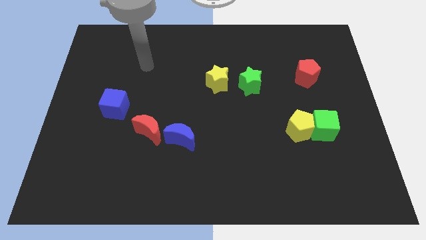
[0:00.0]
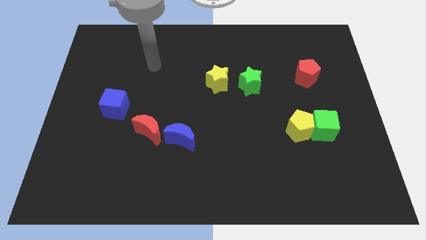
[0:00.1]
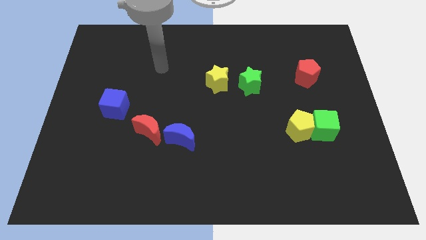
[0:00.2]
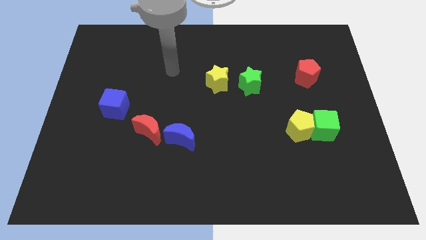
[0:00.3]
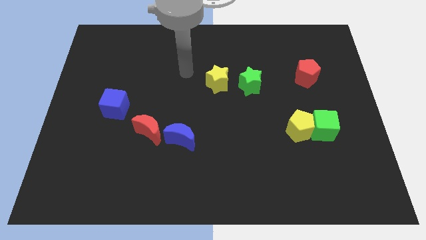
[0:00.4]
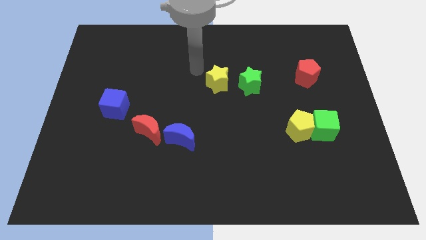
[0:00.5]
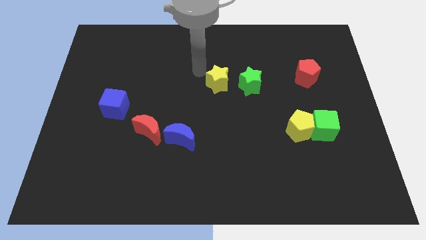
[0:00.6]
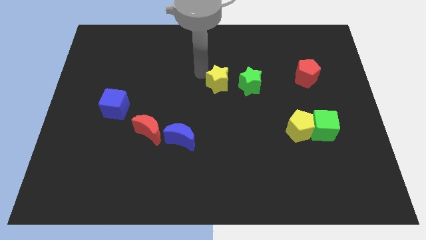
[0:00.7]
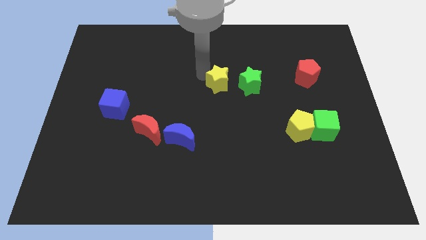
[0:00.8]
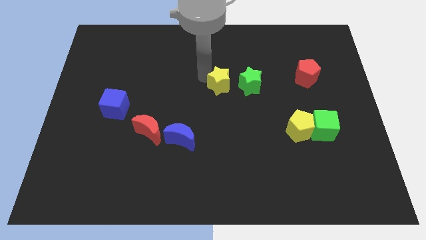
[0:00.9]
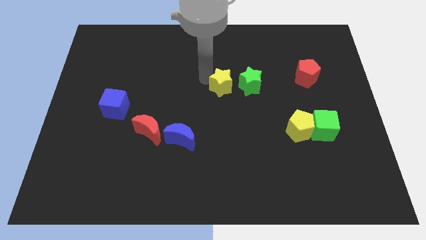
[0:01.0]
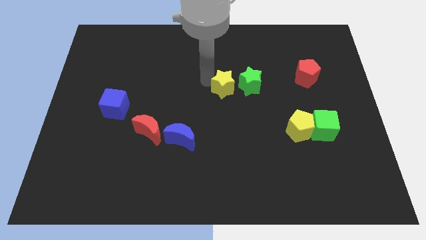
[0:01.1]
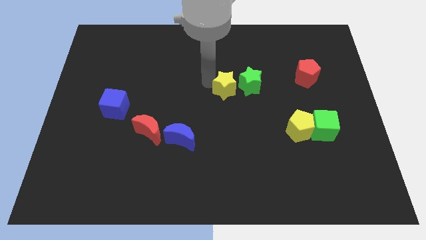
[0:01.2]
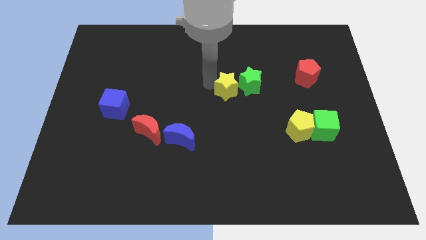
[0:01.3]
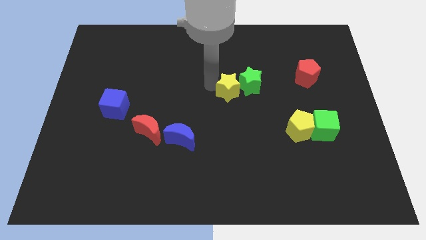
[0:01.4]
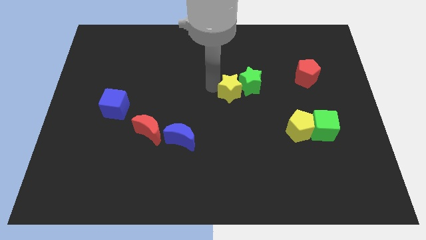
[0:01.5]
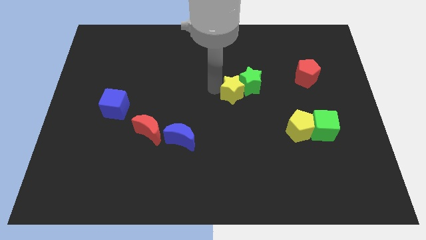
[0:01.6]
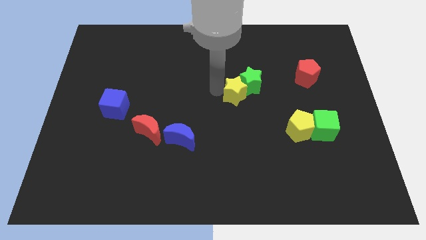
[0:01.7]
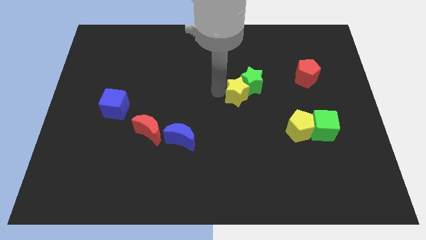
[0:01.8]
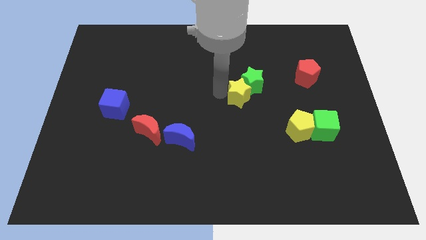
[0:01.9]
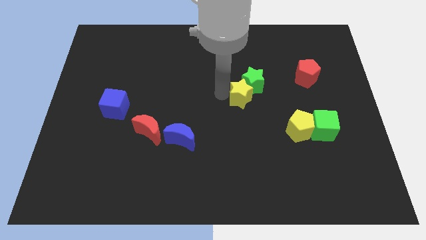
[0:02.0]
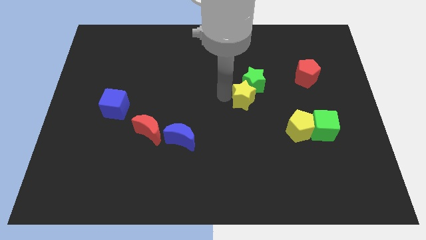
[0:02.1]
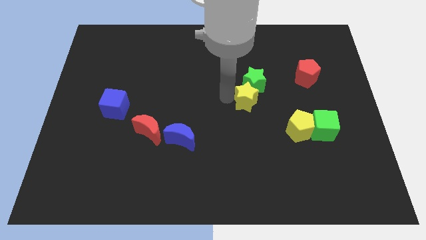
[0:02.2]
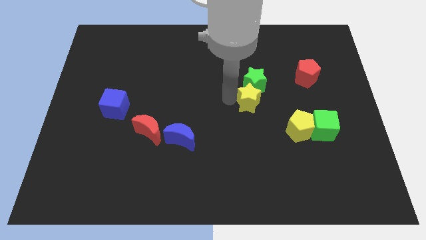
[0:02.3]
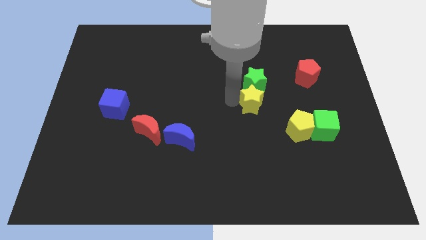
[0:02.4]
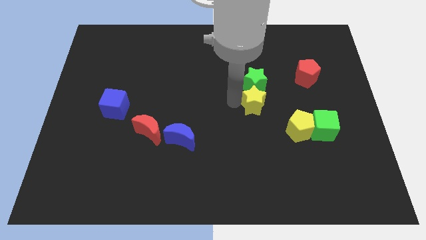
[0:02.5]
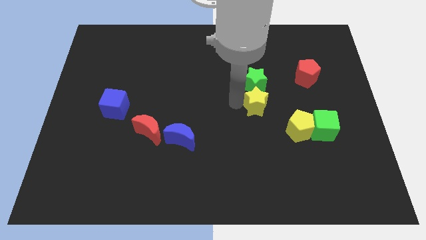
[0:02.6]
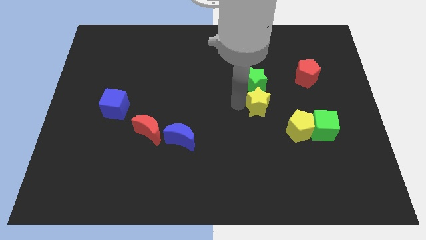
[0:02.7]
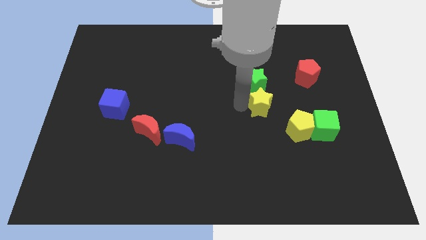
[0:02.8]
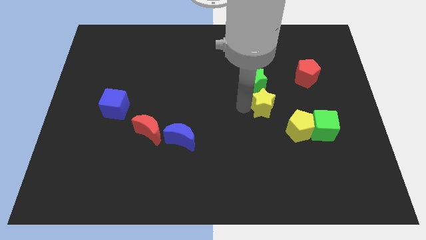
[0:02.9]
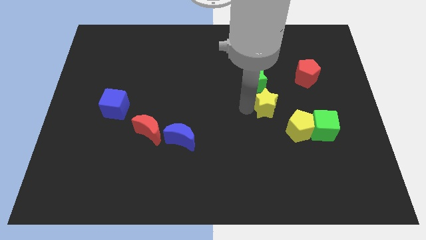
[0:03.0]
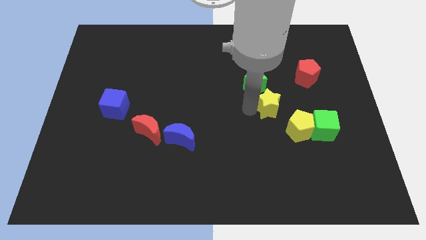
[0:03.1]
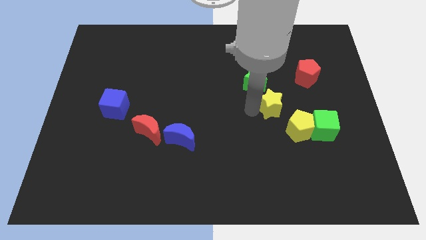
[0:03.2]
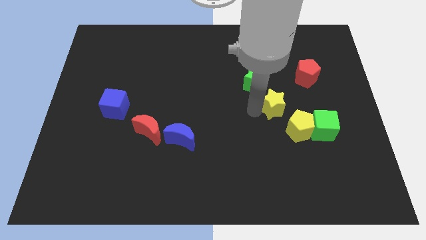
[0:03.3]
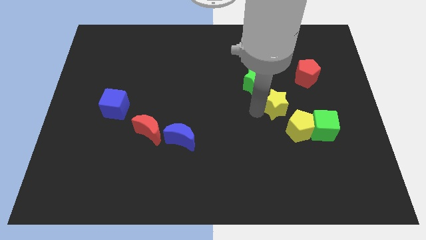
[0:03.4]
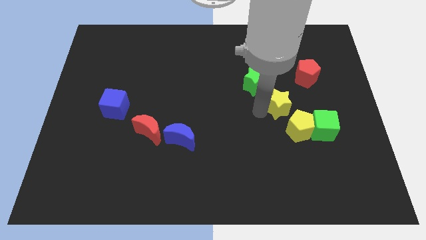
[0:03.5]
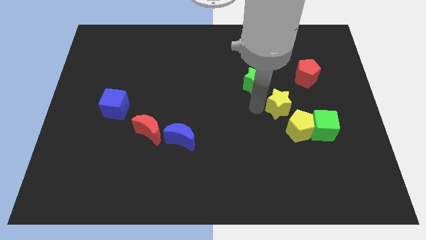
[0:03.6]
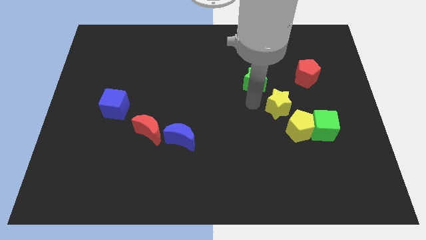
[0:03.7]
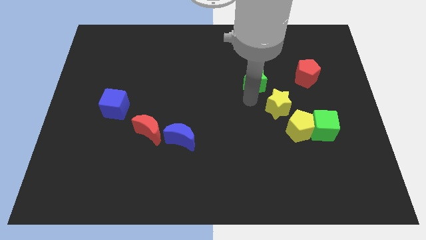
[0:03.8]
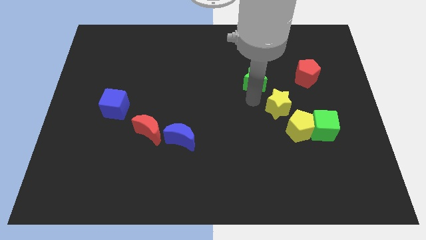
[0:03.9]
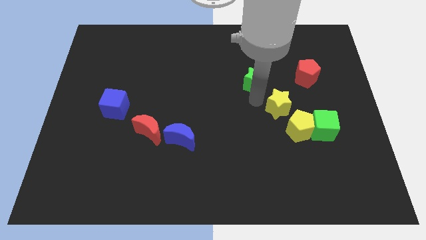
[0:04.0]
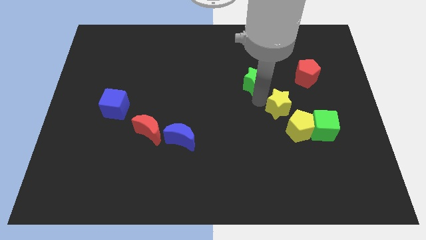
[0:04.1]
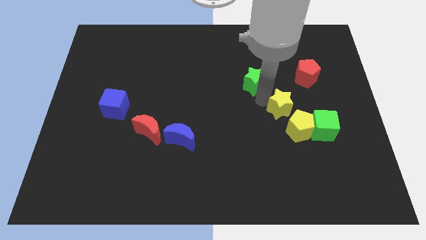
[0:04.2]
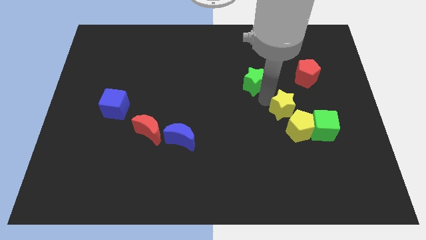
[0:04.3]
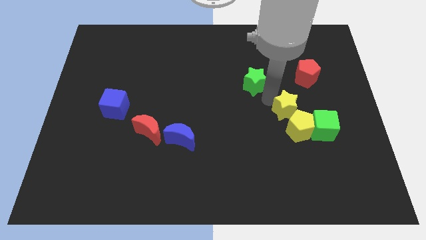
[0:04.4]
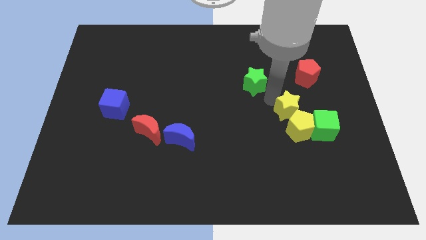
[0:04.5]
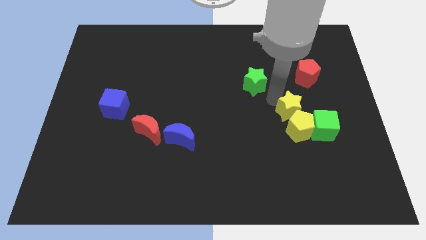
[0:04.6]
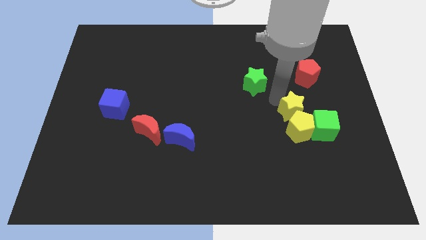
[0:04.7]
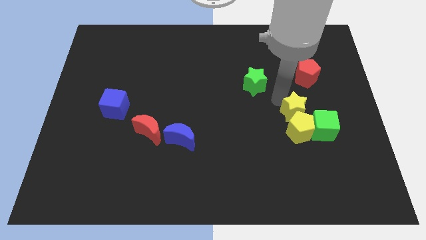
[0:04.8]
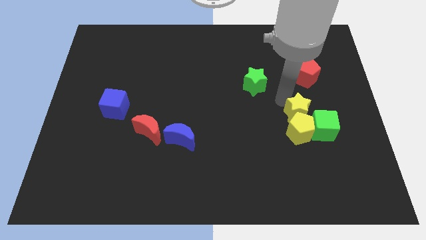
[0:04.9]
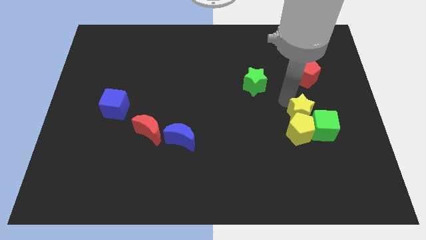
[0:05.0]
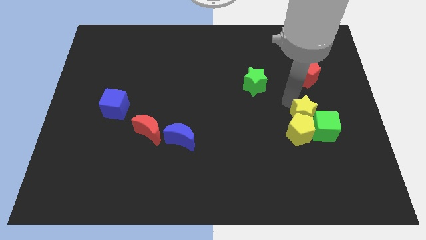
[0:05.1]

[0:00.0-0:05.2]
slide the yellow star close to the green cube

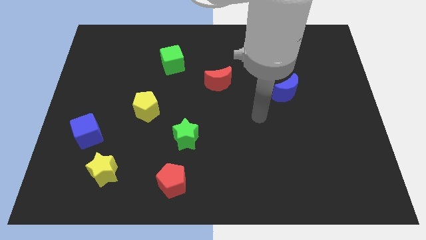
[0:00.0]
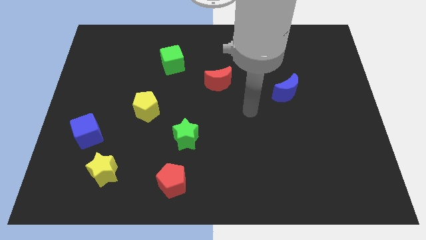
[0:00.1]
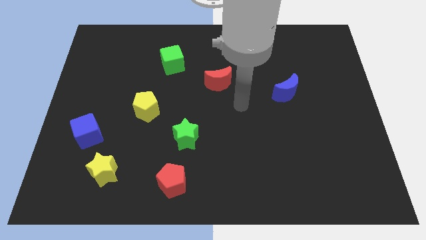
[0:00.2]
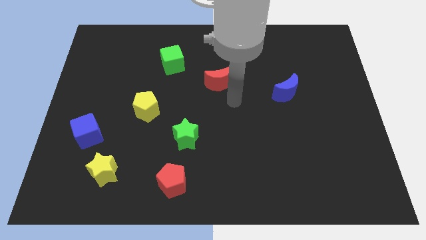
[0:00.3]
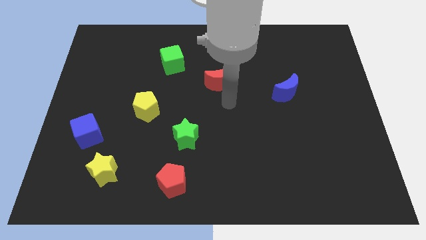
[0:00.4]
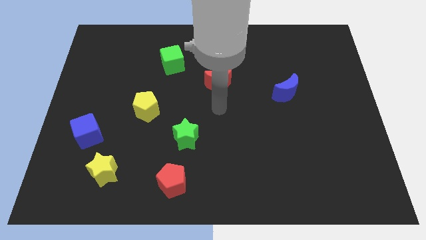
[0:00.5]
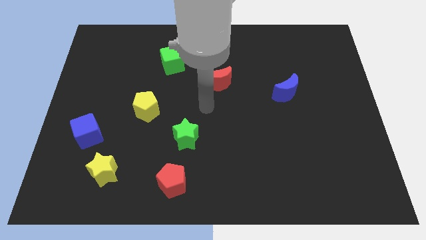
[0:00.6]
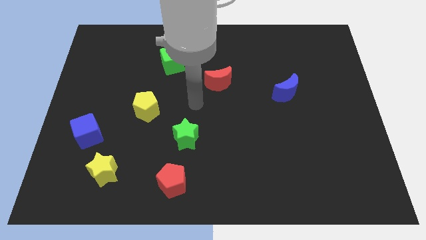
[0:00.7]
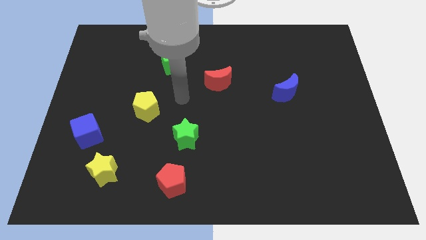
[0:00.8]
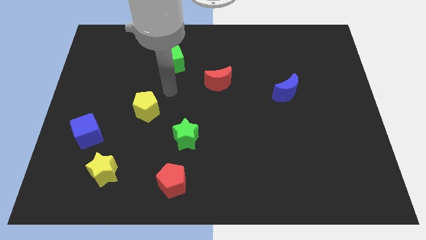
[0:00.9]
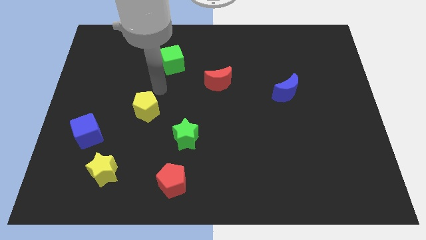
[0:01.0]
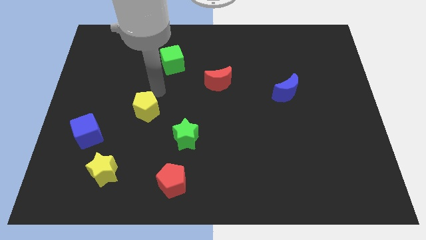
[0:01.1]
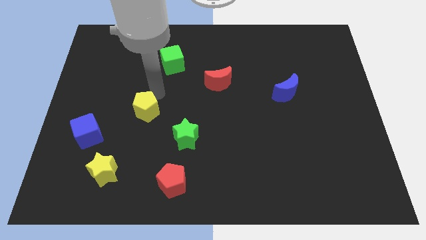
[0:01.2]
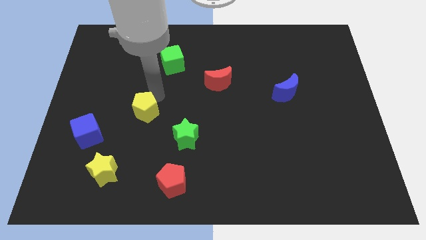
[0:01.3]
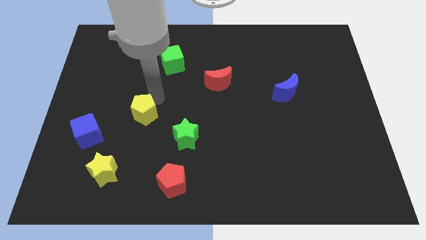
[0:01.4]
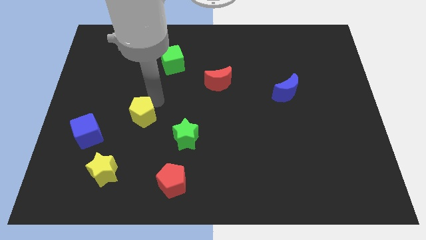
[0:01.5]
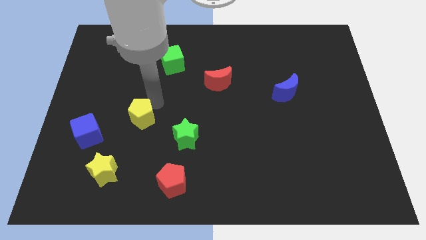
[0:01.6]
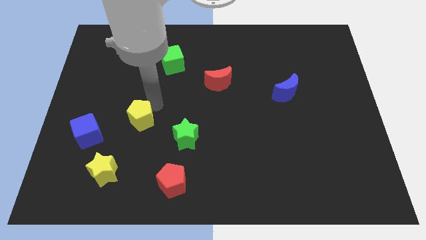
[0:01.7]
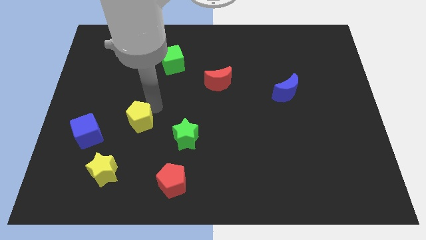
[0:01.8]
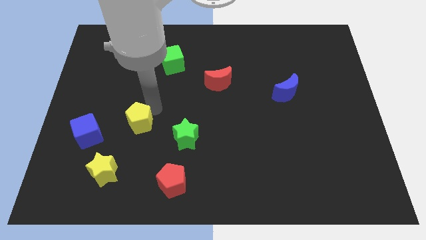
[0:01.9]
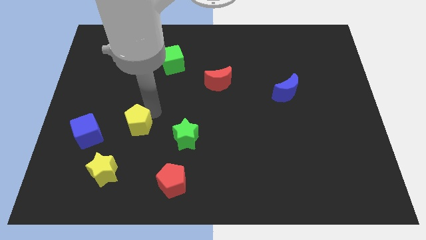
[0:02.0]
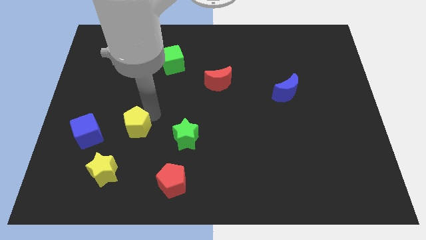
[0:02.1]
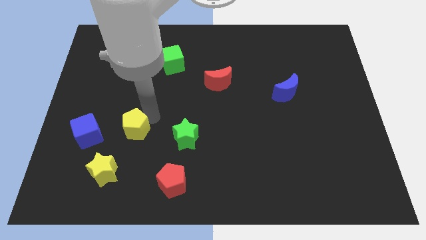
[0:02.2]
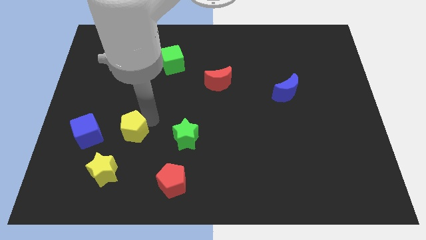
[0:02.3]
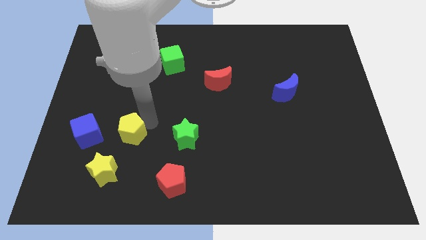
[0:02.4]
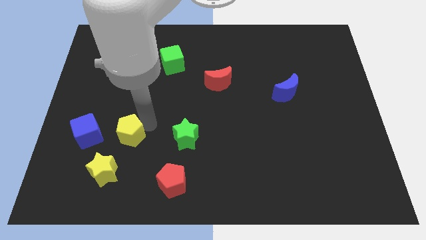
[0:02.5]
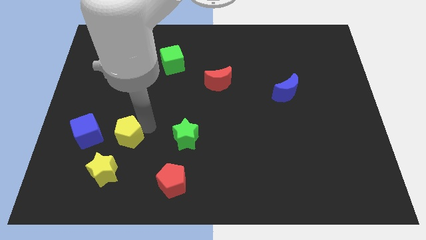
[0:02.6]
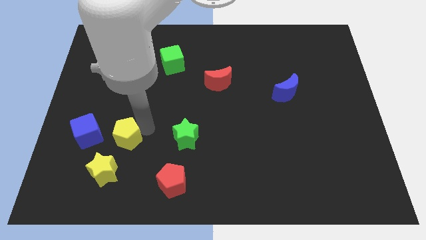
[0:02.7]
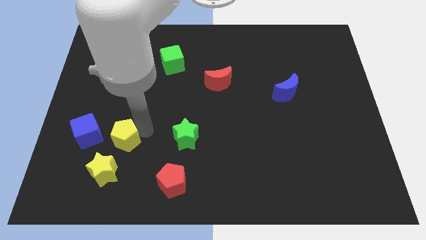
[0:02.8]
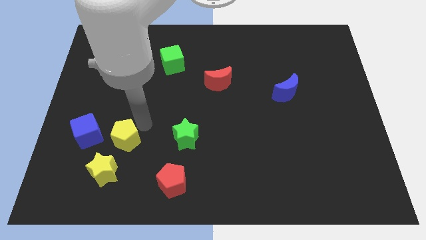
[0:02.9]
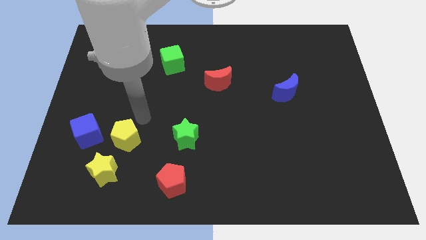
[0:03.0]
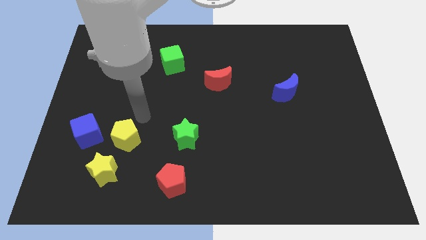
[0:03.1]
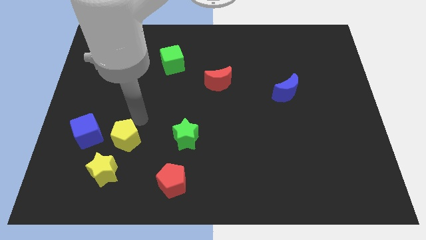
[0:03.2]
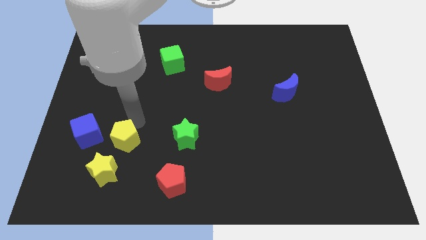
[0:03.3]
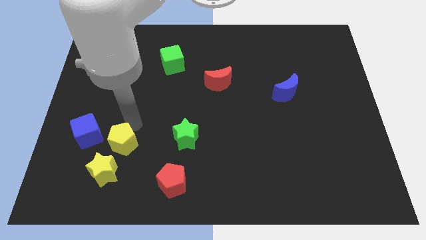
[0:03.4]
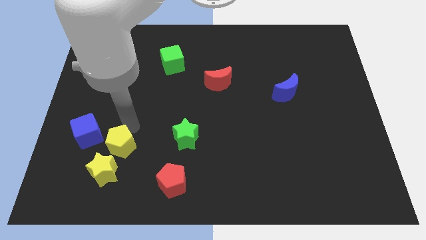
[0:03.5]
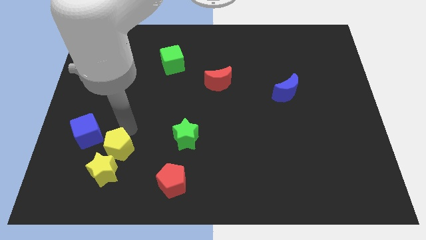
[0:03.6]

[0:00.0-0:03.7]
move the yellow pentagon towards the yellow star
